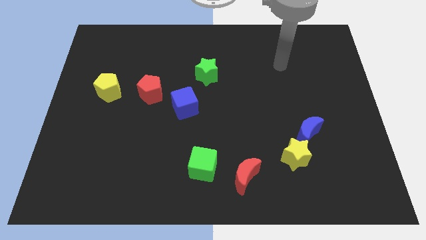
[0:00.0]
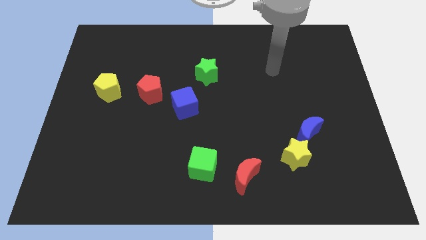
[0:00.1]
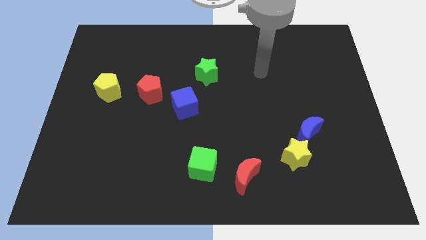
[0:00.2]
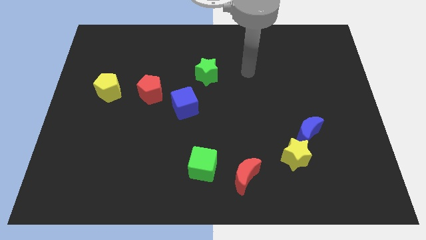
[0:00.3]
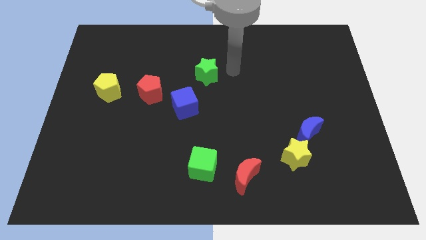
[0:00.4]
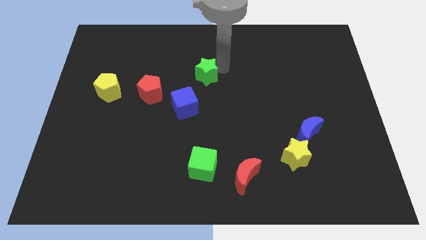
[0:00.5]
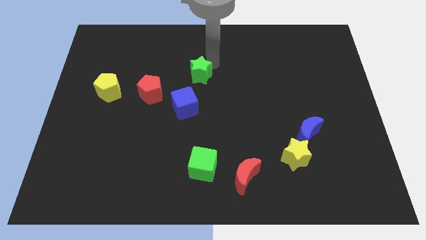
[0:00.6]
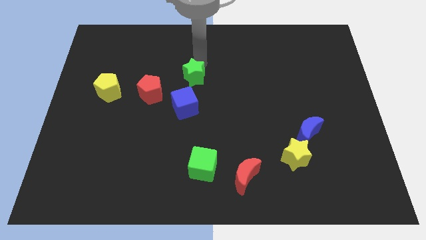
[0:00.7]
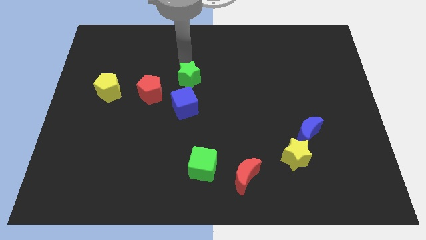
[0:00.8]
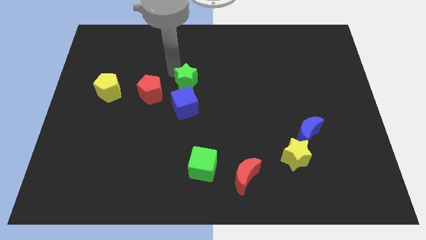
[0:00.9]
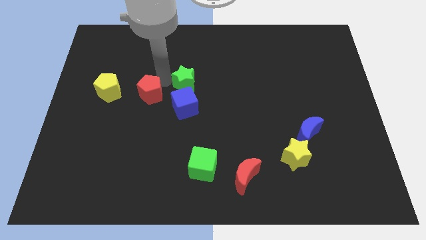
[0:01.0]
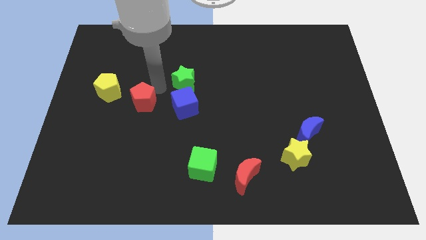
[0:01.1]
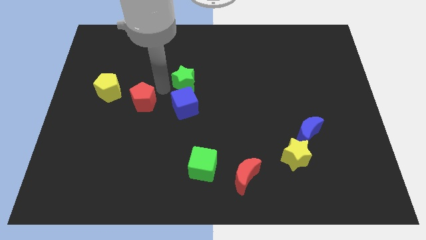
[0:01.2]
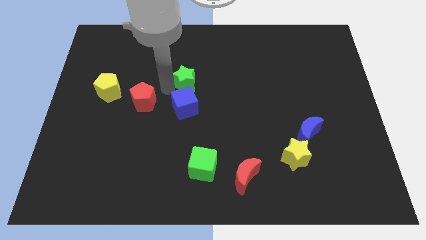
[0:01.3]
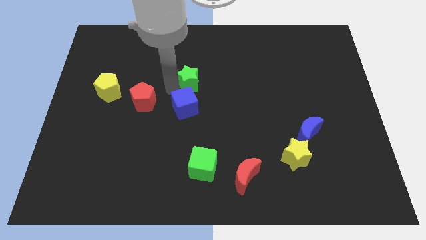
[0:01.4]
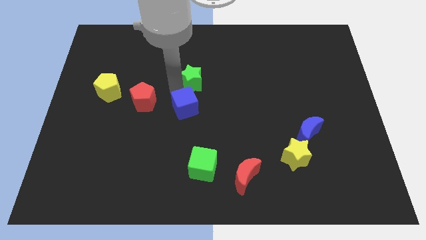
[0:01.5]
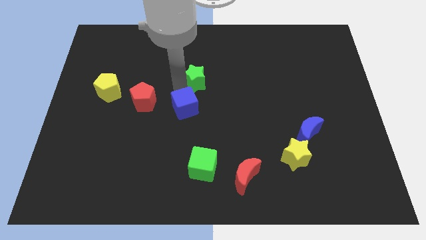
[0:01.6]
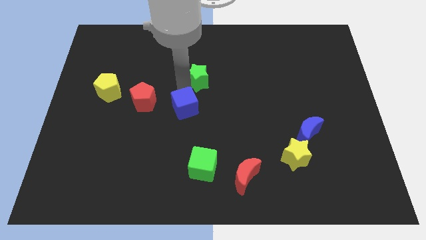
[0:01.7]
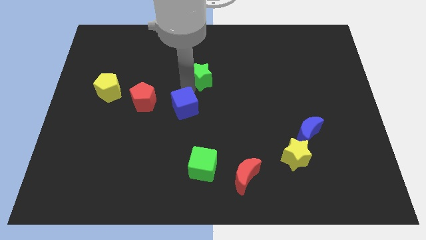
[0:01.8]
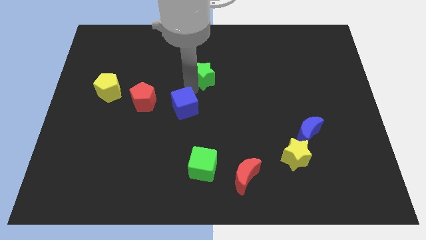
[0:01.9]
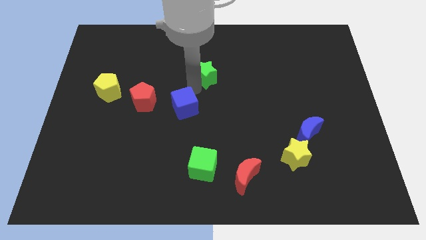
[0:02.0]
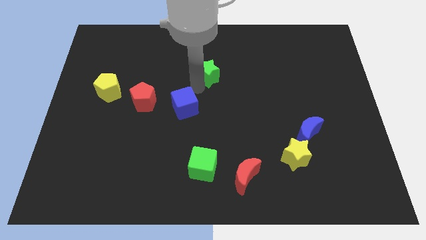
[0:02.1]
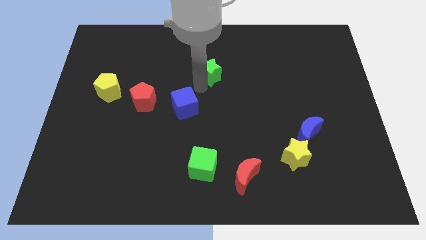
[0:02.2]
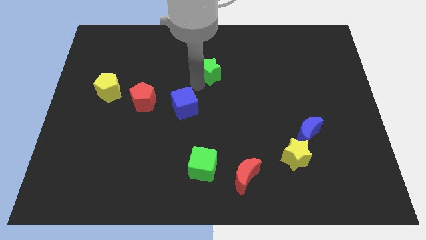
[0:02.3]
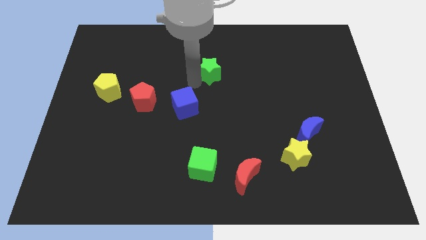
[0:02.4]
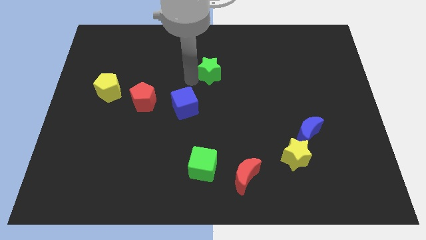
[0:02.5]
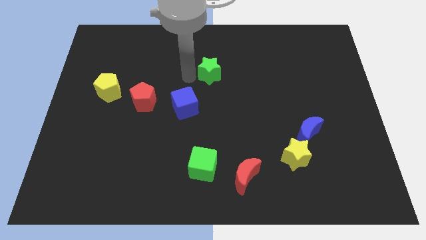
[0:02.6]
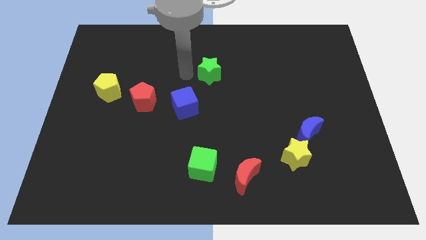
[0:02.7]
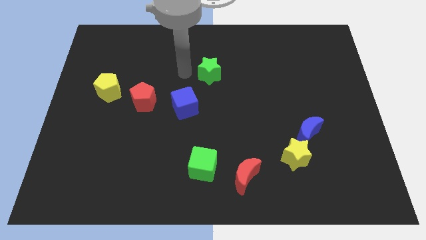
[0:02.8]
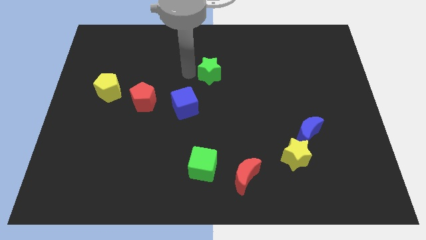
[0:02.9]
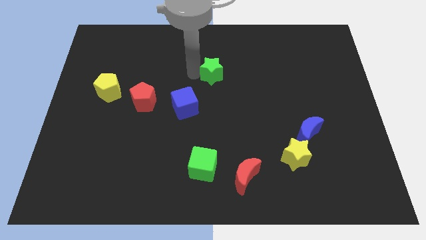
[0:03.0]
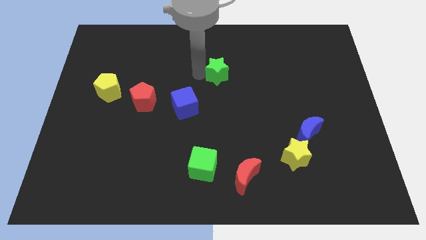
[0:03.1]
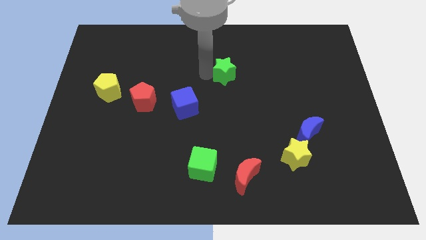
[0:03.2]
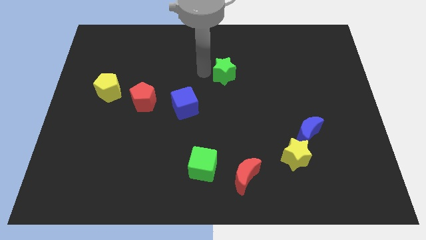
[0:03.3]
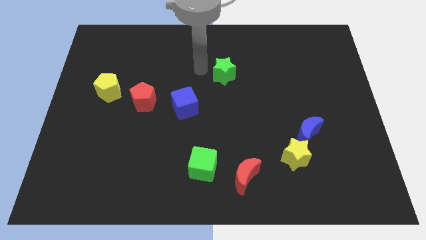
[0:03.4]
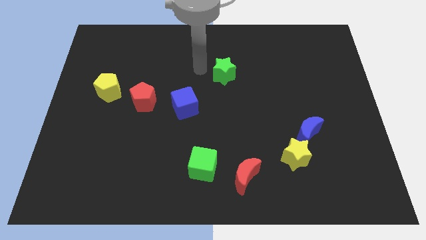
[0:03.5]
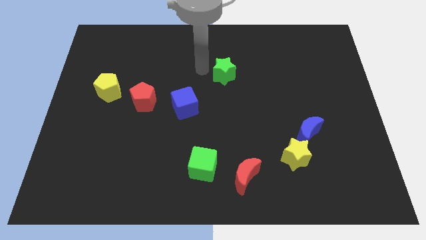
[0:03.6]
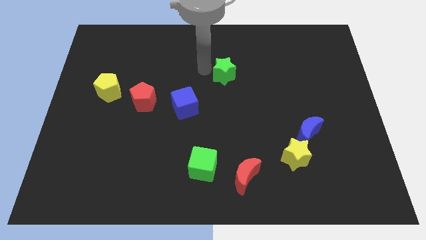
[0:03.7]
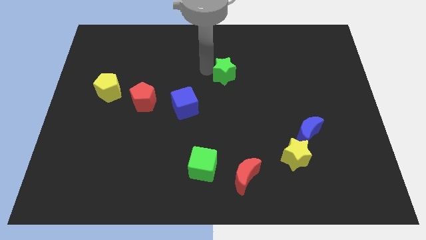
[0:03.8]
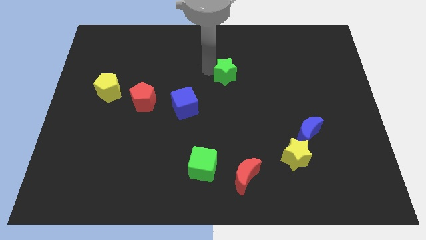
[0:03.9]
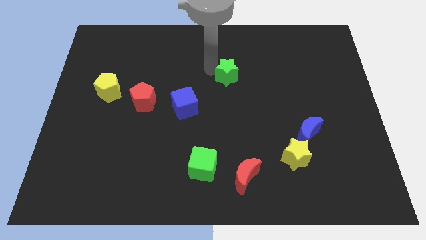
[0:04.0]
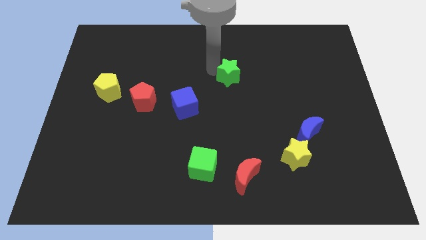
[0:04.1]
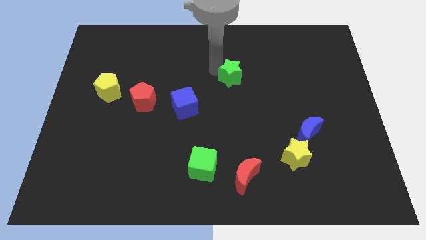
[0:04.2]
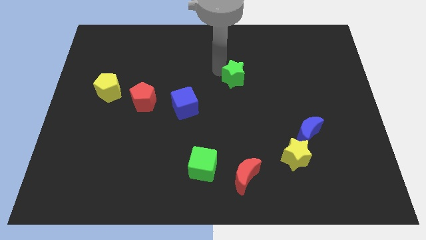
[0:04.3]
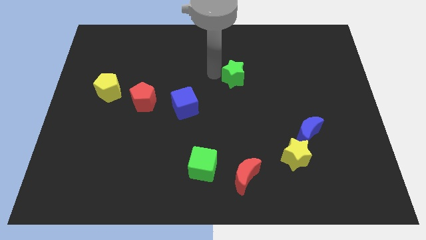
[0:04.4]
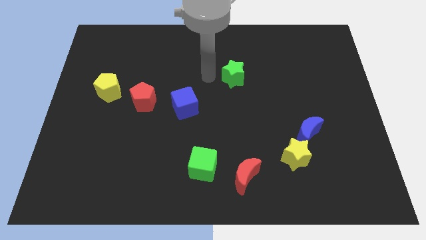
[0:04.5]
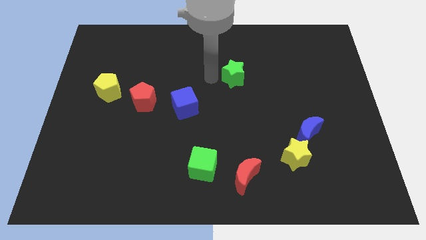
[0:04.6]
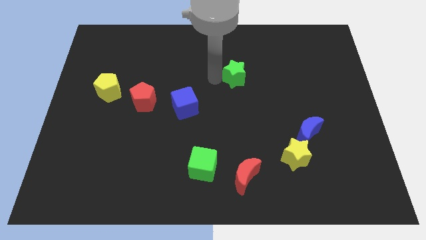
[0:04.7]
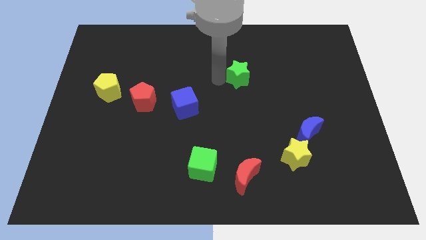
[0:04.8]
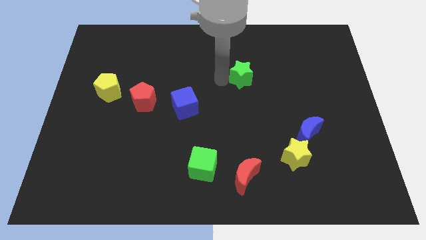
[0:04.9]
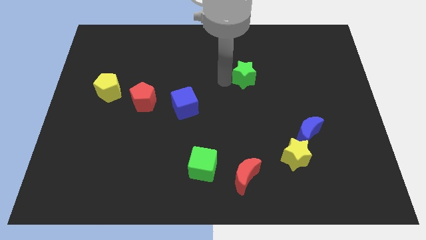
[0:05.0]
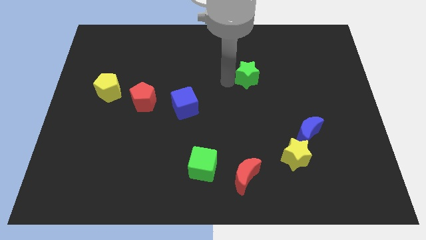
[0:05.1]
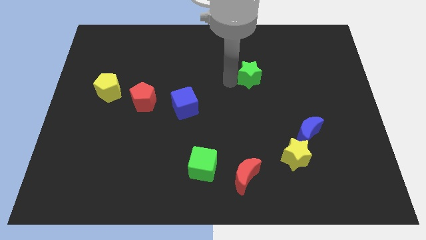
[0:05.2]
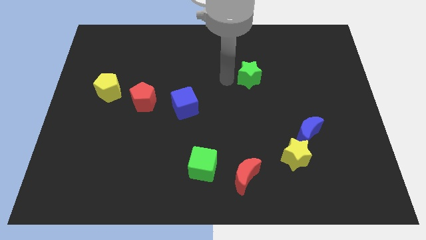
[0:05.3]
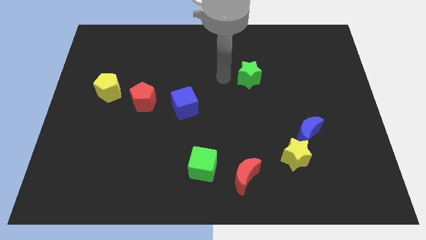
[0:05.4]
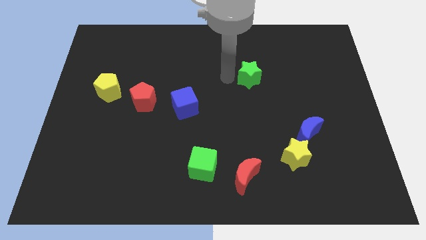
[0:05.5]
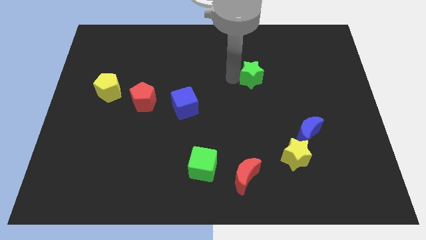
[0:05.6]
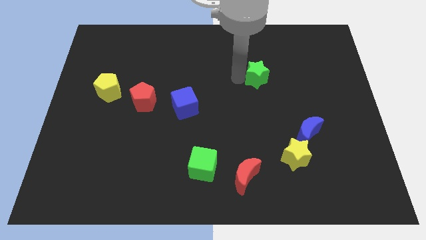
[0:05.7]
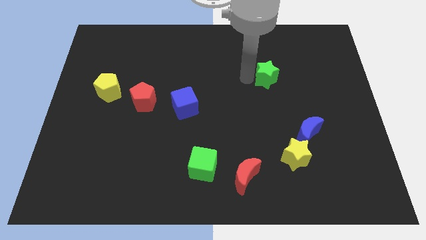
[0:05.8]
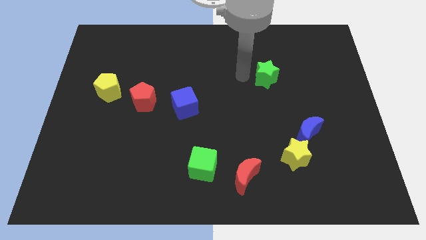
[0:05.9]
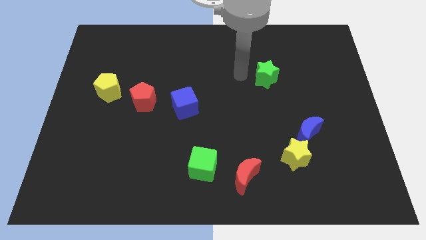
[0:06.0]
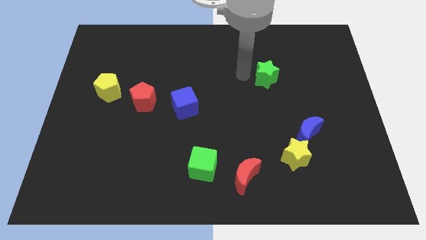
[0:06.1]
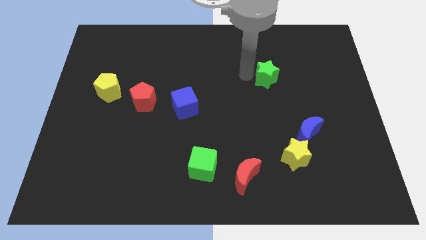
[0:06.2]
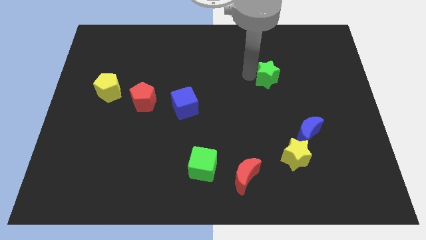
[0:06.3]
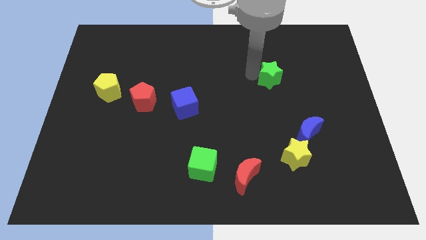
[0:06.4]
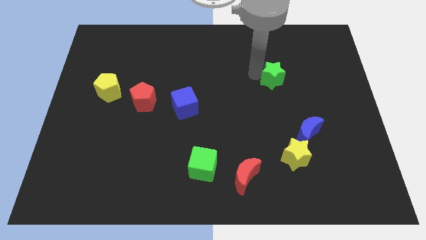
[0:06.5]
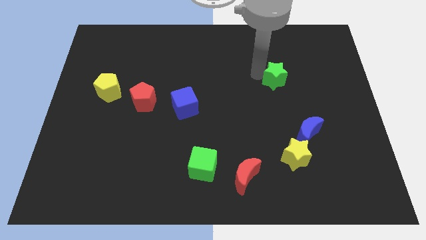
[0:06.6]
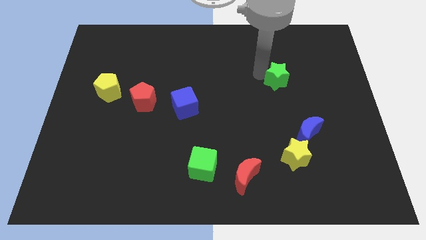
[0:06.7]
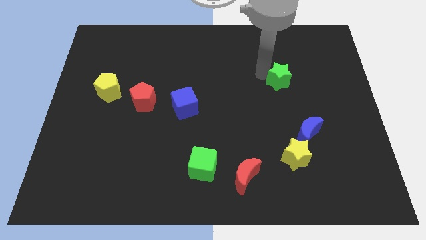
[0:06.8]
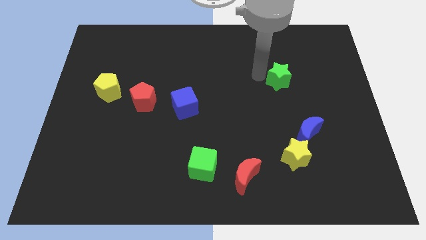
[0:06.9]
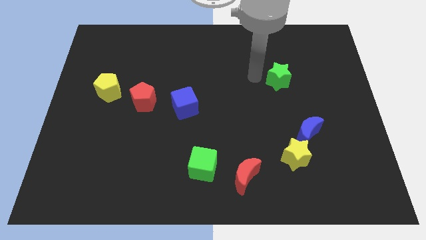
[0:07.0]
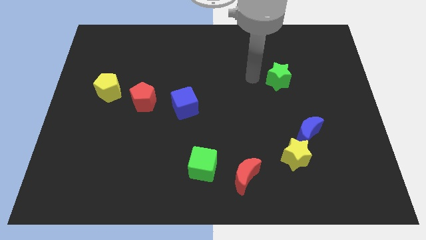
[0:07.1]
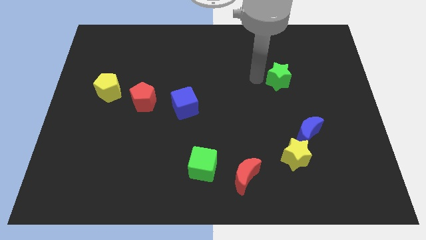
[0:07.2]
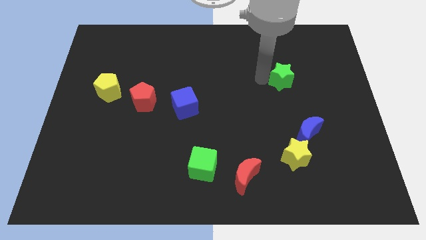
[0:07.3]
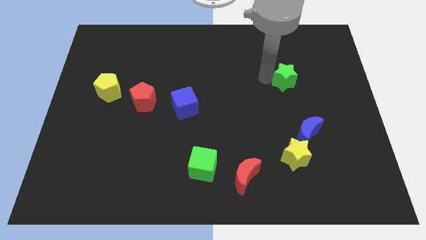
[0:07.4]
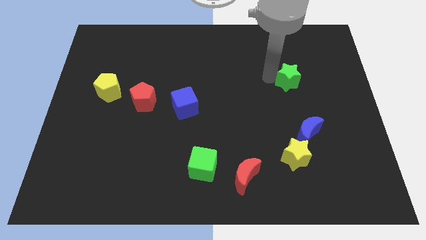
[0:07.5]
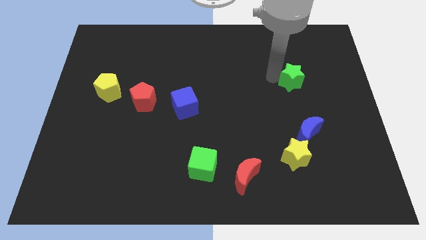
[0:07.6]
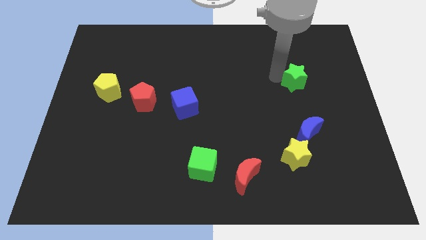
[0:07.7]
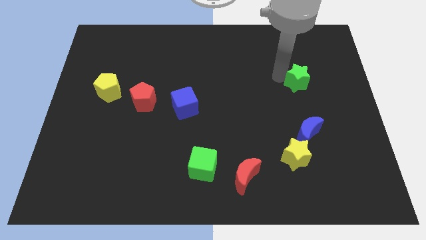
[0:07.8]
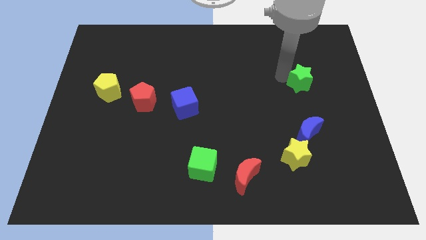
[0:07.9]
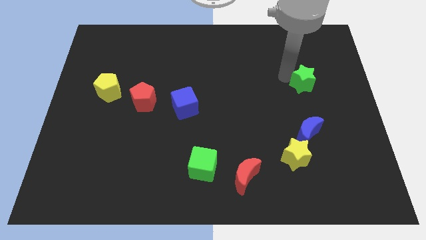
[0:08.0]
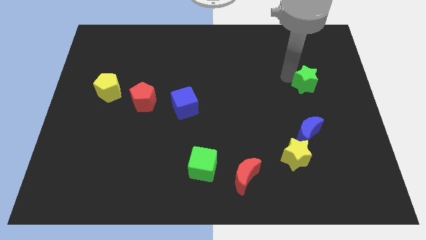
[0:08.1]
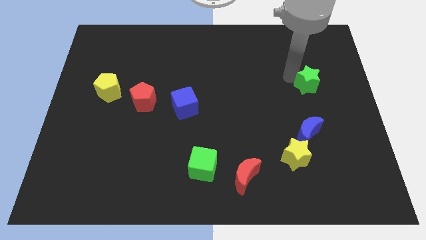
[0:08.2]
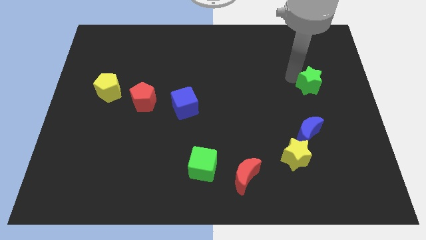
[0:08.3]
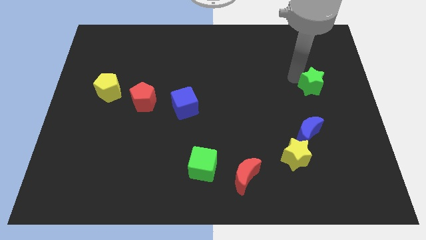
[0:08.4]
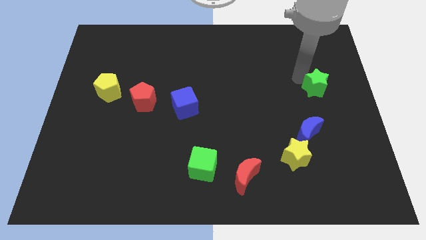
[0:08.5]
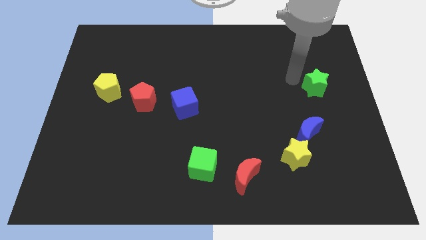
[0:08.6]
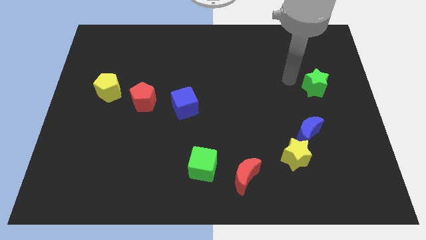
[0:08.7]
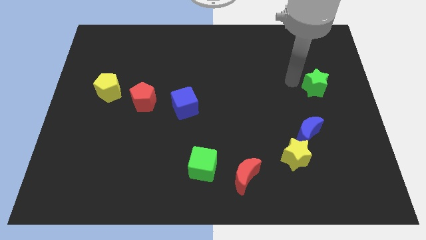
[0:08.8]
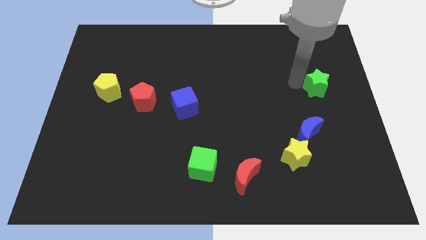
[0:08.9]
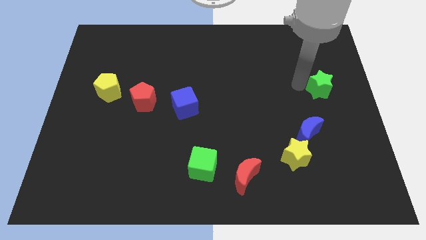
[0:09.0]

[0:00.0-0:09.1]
push the green star to the right side of the board
